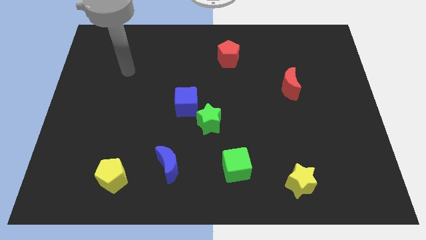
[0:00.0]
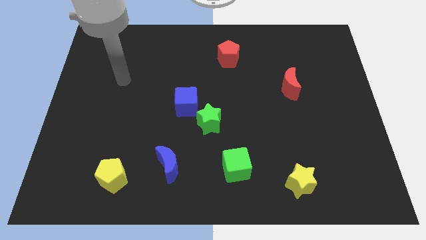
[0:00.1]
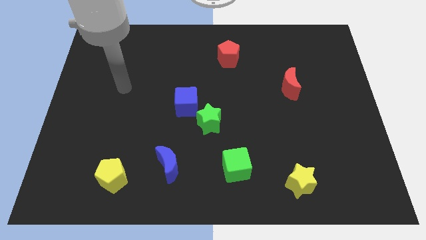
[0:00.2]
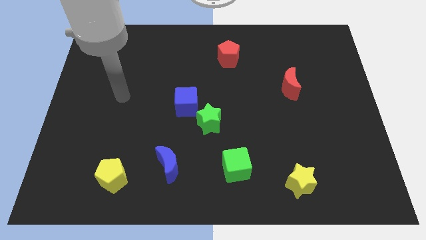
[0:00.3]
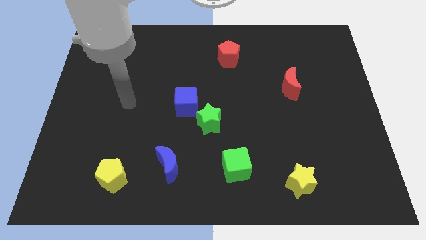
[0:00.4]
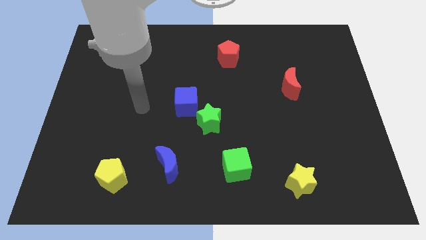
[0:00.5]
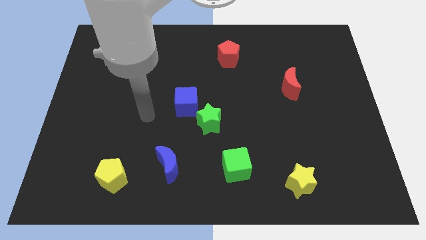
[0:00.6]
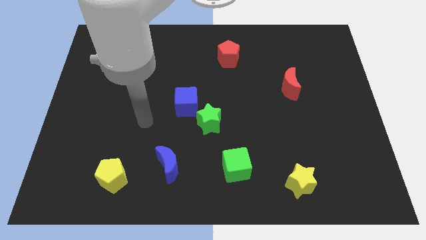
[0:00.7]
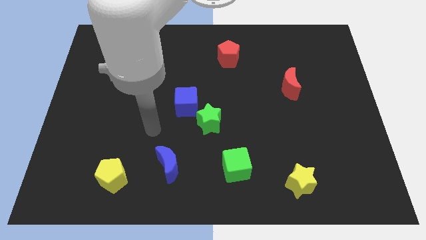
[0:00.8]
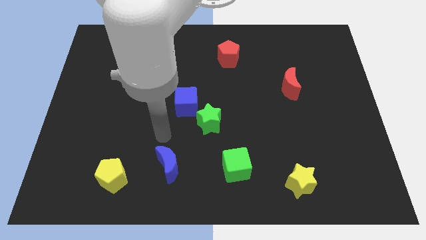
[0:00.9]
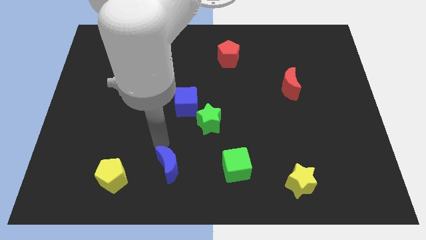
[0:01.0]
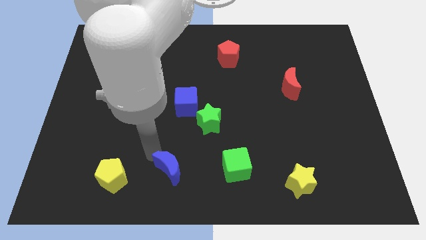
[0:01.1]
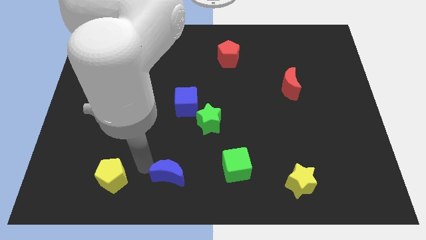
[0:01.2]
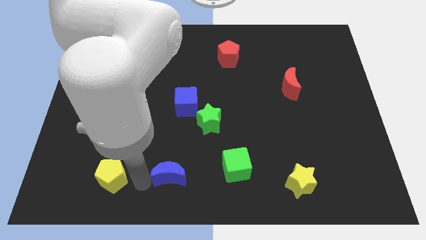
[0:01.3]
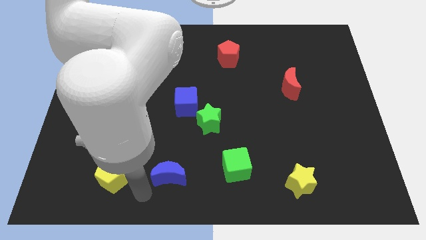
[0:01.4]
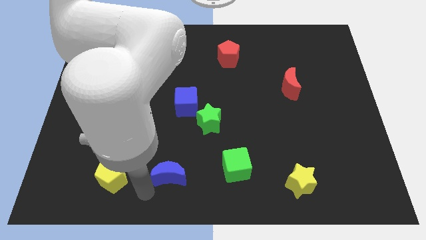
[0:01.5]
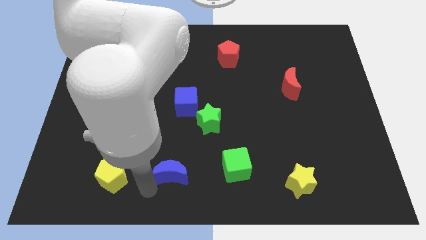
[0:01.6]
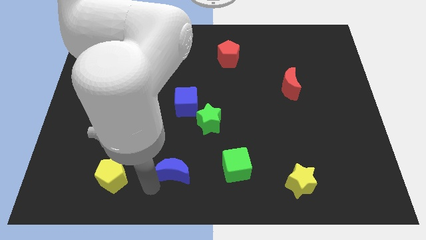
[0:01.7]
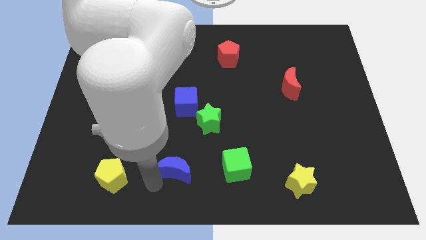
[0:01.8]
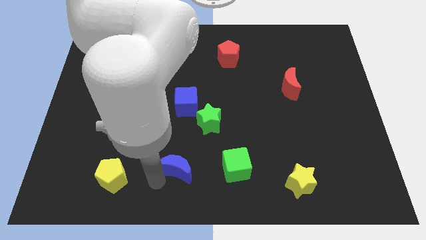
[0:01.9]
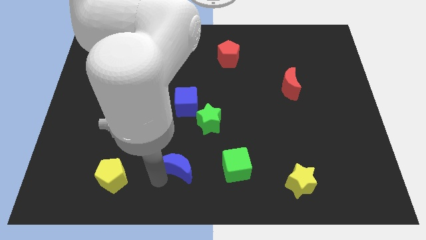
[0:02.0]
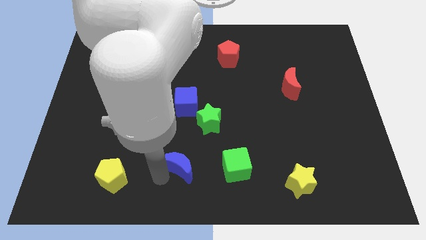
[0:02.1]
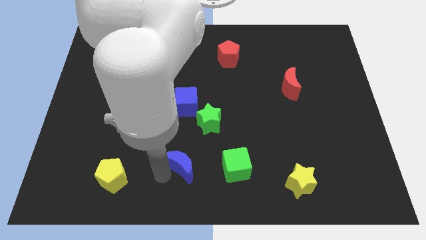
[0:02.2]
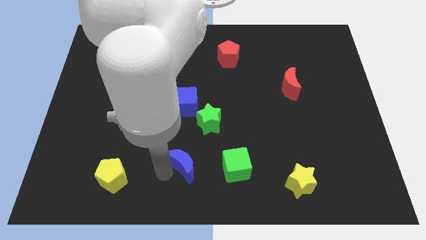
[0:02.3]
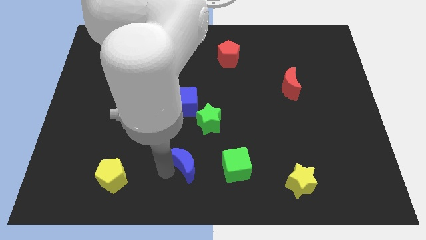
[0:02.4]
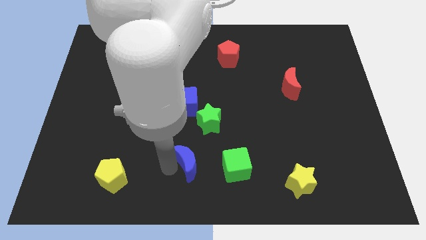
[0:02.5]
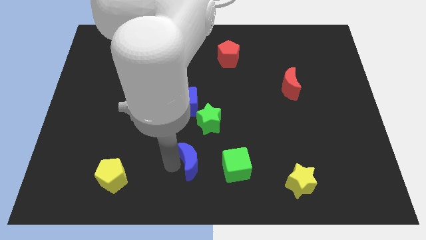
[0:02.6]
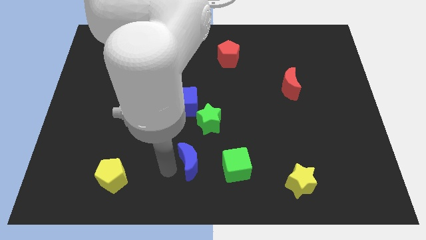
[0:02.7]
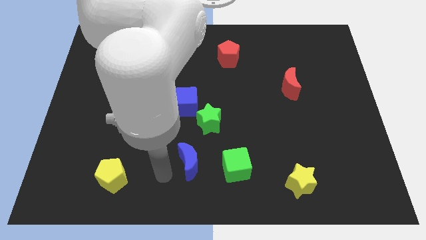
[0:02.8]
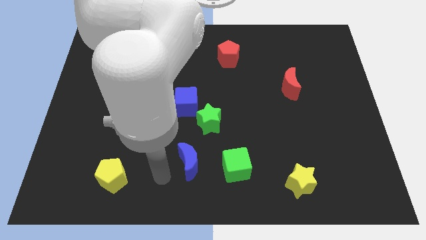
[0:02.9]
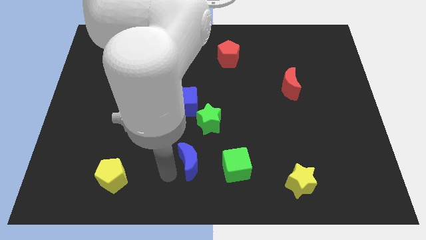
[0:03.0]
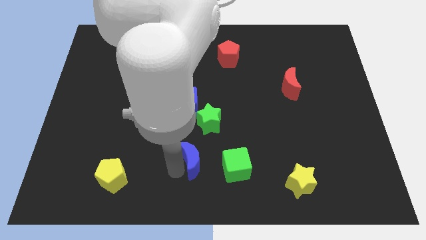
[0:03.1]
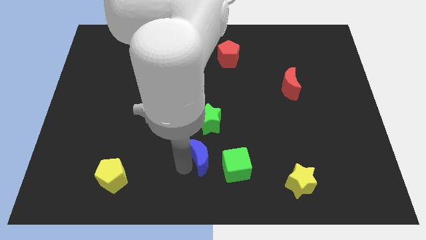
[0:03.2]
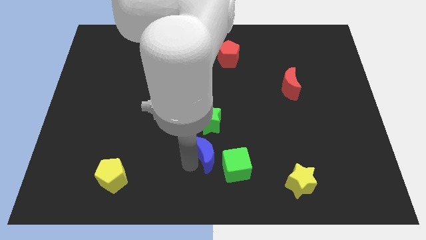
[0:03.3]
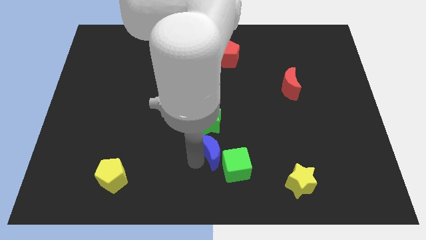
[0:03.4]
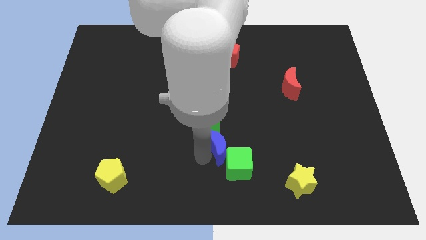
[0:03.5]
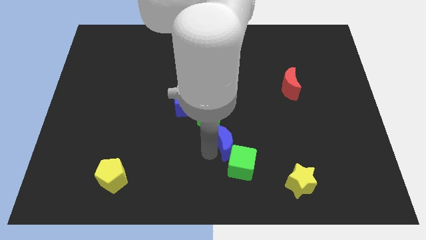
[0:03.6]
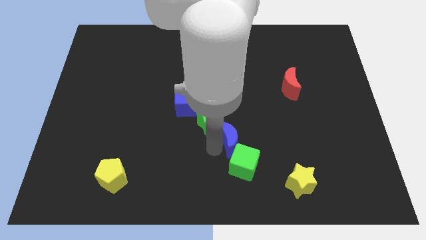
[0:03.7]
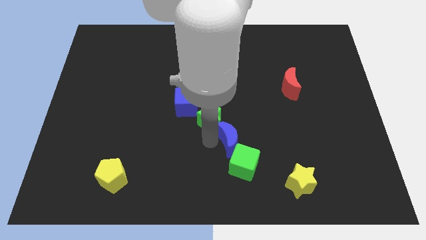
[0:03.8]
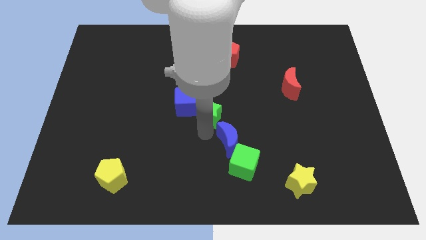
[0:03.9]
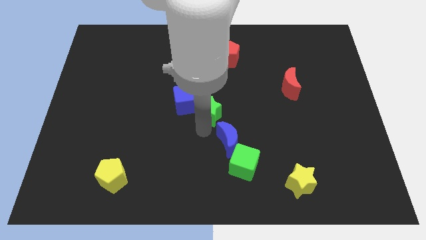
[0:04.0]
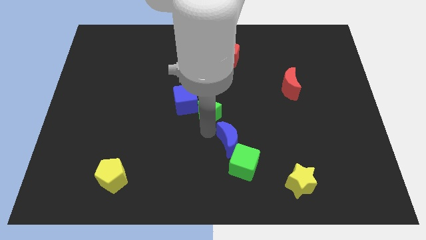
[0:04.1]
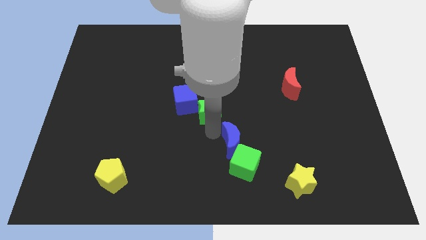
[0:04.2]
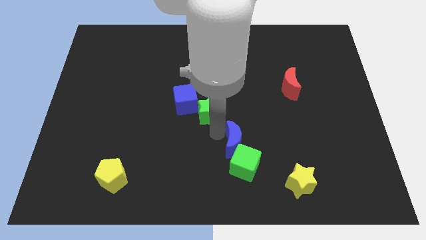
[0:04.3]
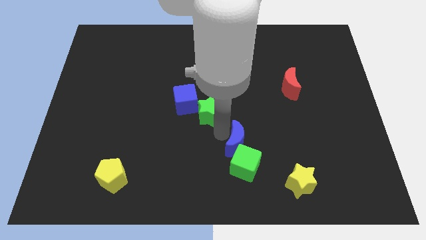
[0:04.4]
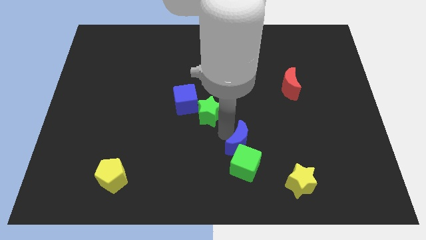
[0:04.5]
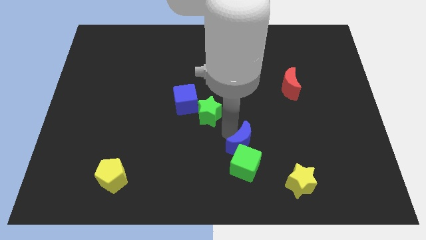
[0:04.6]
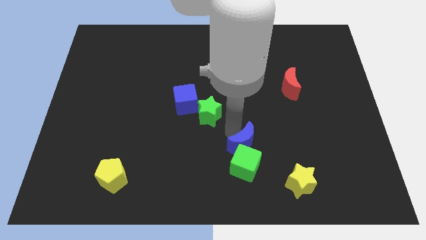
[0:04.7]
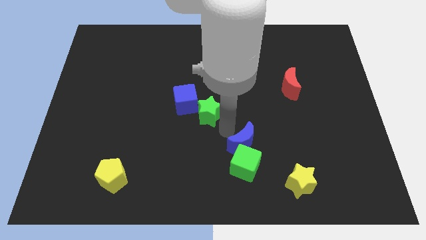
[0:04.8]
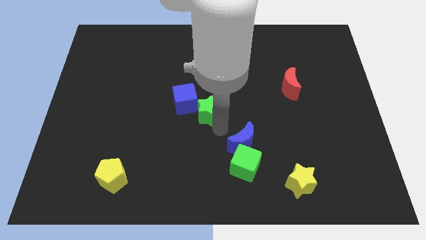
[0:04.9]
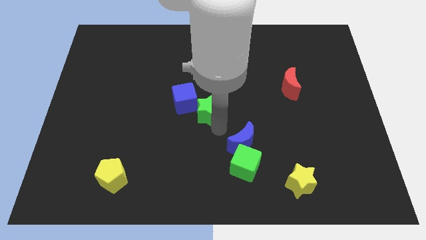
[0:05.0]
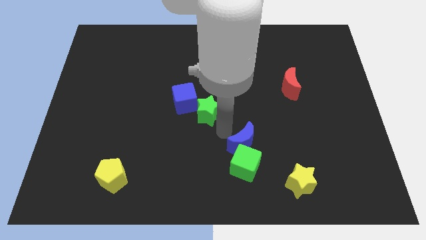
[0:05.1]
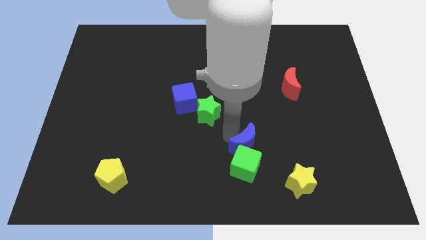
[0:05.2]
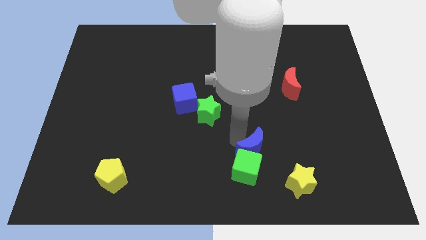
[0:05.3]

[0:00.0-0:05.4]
move the blue moon to the top left of the yellow star

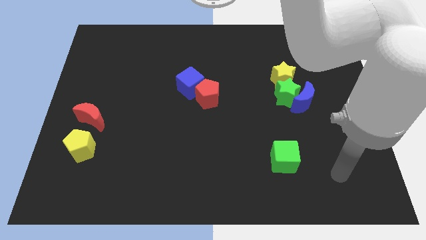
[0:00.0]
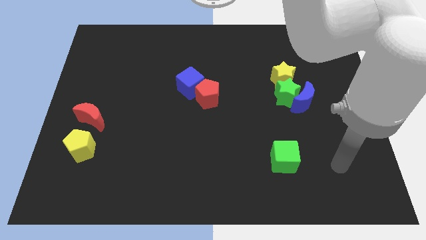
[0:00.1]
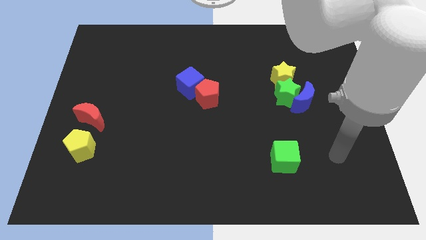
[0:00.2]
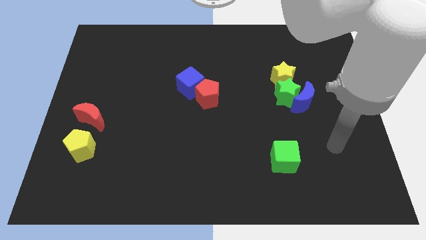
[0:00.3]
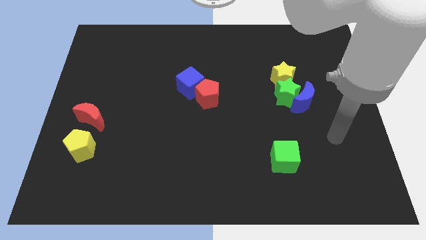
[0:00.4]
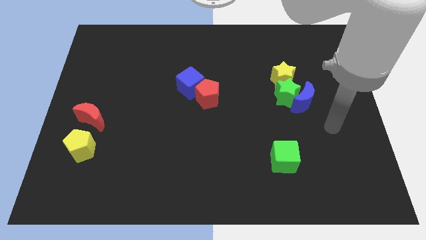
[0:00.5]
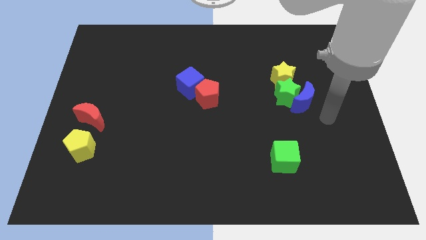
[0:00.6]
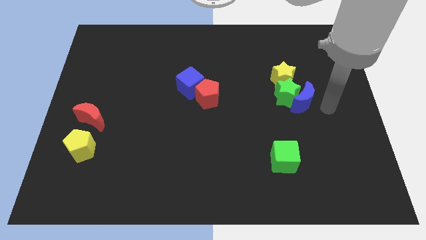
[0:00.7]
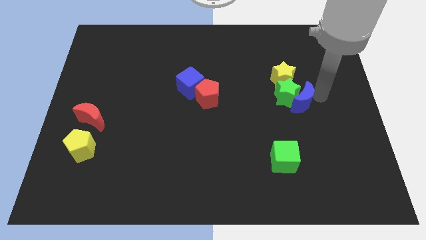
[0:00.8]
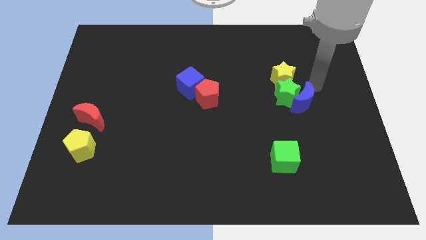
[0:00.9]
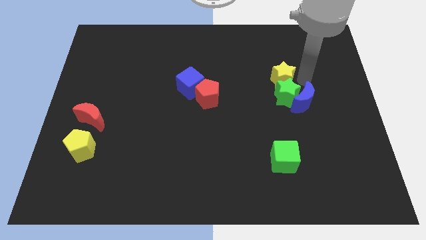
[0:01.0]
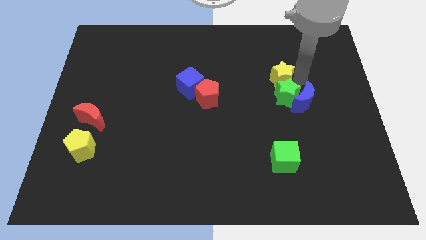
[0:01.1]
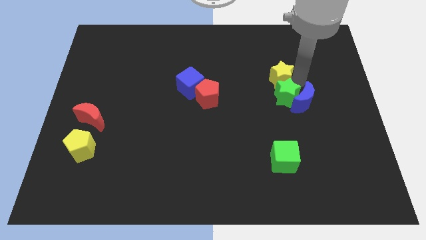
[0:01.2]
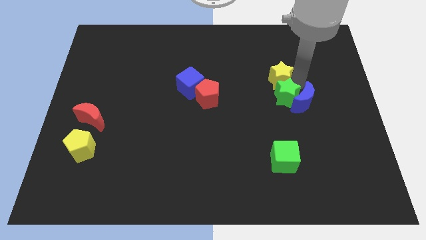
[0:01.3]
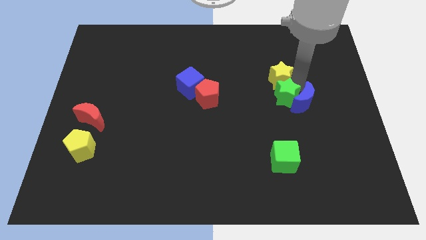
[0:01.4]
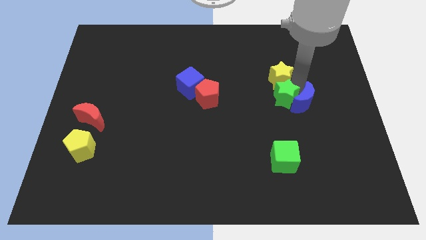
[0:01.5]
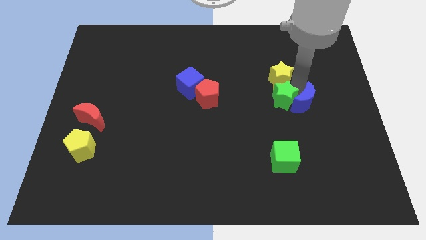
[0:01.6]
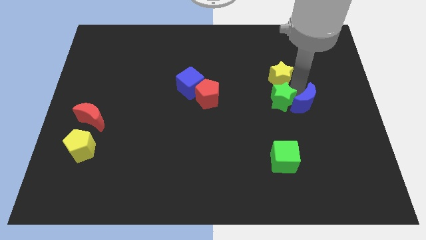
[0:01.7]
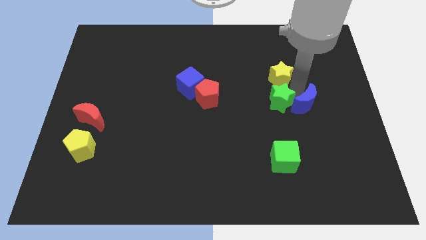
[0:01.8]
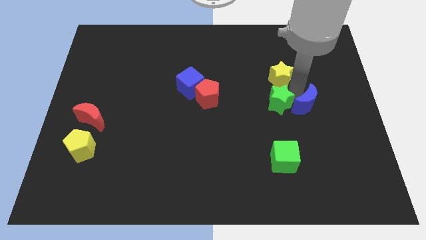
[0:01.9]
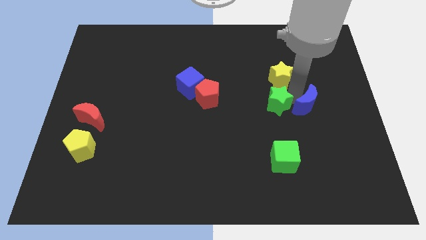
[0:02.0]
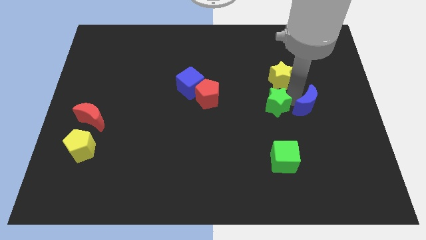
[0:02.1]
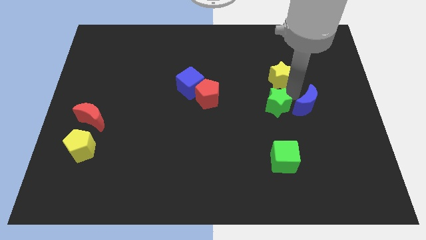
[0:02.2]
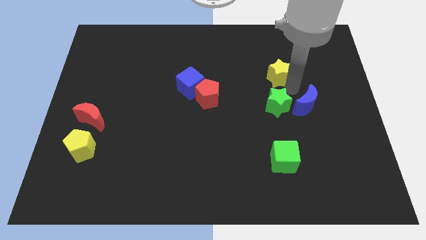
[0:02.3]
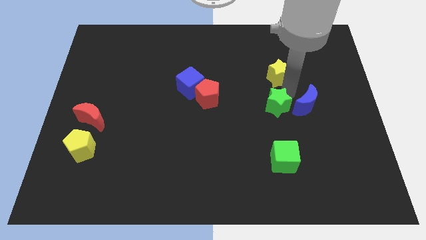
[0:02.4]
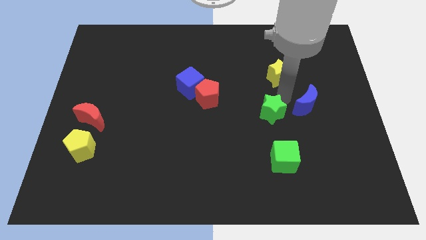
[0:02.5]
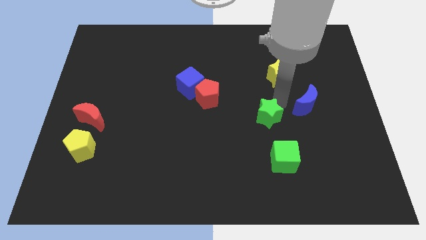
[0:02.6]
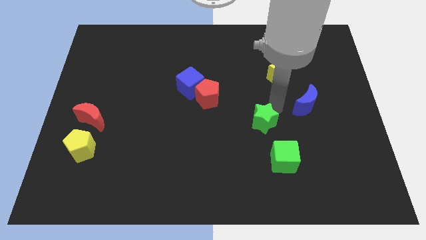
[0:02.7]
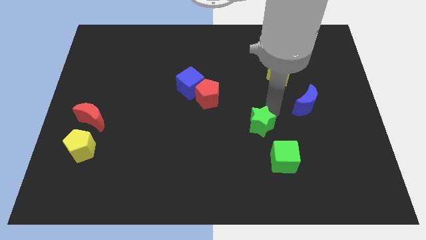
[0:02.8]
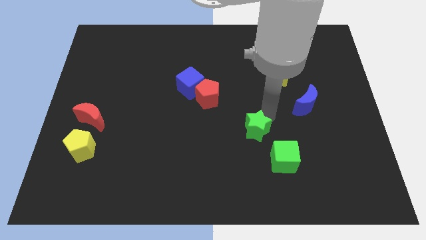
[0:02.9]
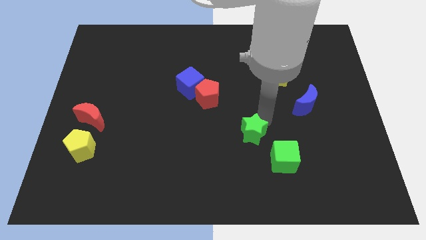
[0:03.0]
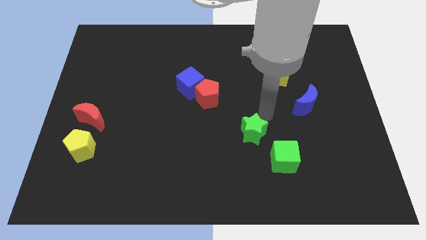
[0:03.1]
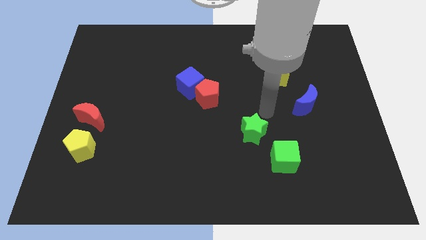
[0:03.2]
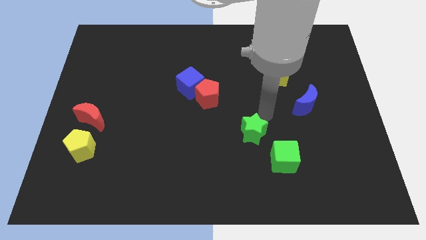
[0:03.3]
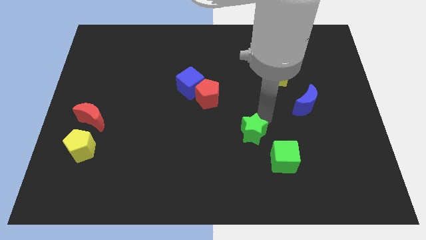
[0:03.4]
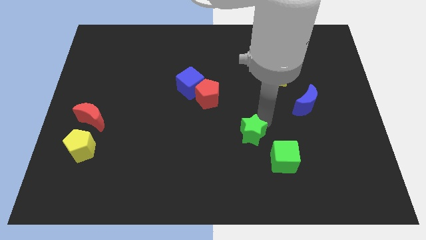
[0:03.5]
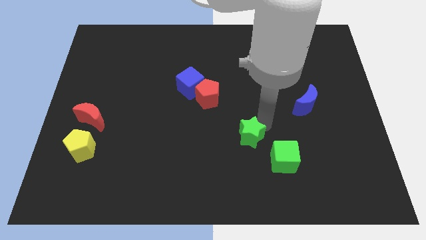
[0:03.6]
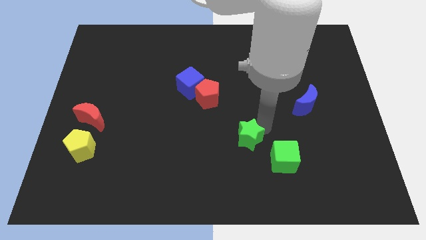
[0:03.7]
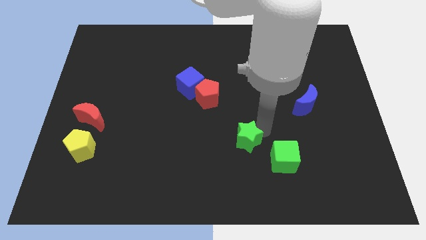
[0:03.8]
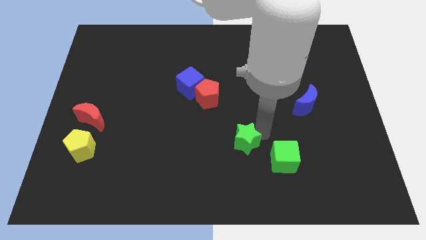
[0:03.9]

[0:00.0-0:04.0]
slide the green star left of the green cube
